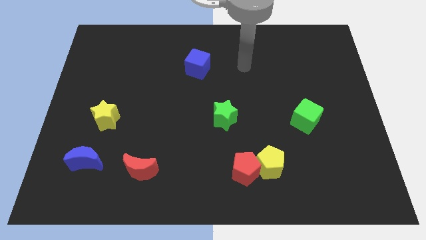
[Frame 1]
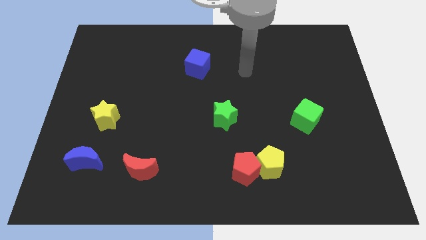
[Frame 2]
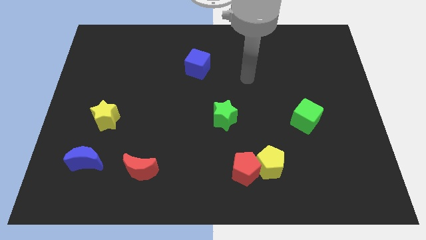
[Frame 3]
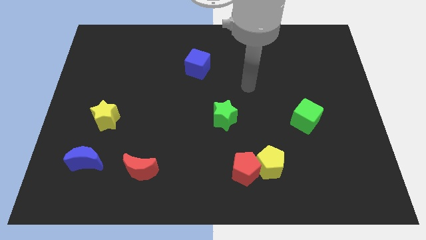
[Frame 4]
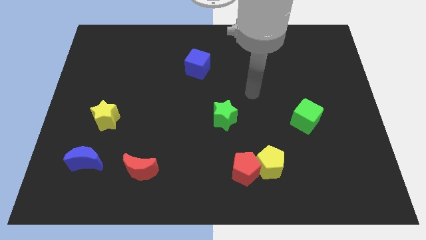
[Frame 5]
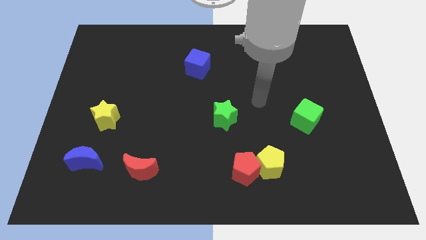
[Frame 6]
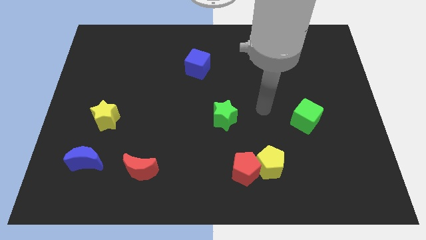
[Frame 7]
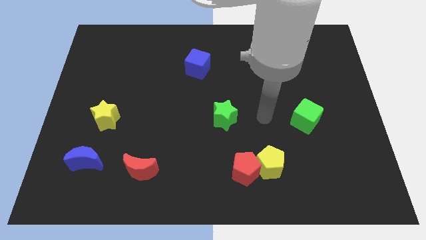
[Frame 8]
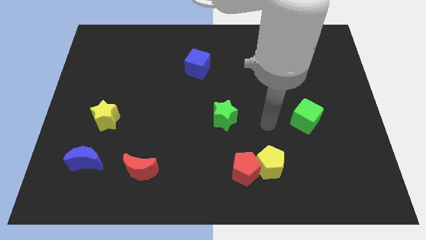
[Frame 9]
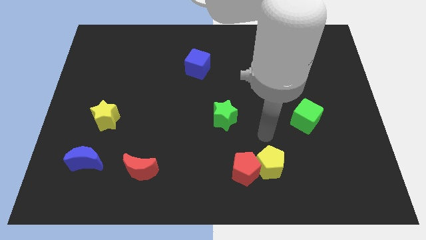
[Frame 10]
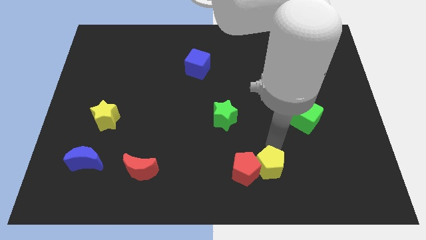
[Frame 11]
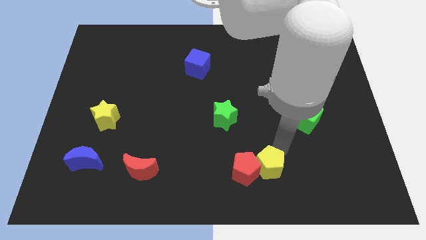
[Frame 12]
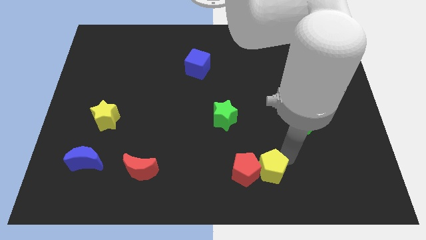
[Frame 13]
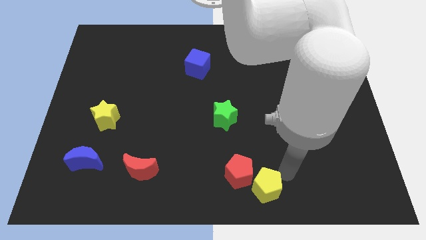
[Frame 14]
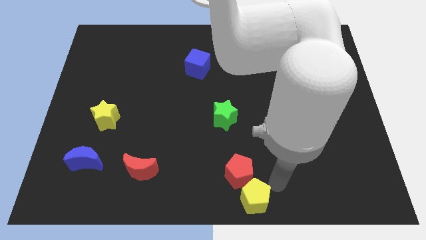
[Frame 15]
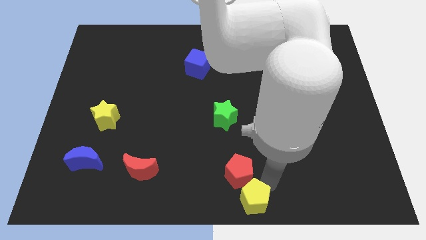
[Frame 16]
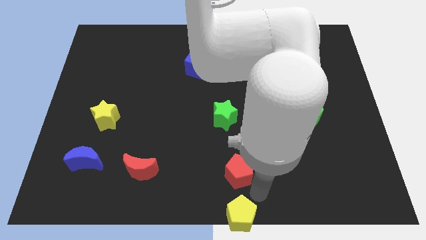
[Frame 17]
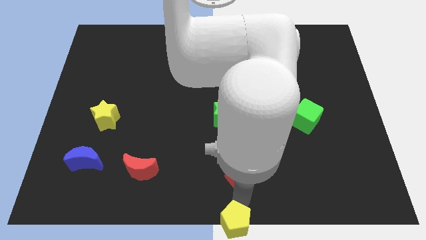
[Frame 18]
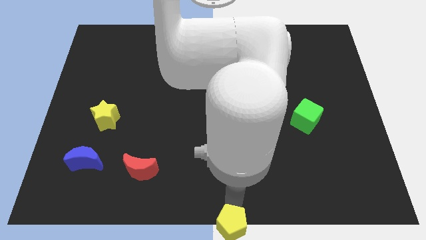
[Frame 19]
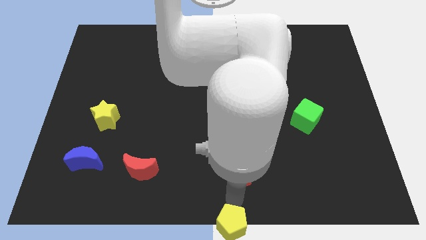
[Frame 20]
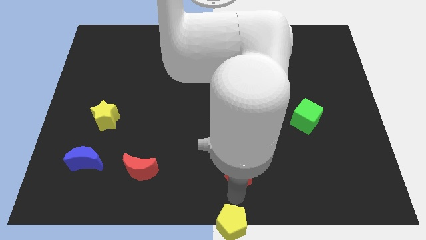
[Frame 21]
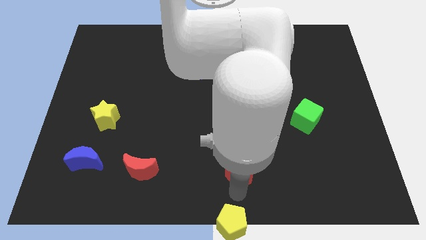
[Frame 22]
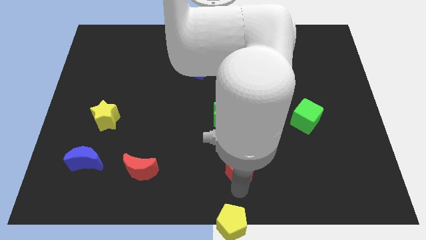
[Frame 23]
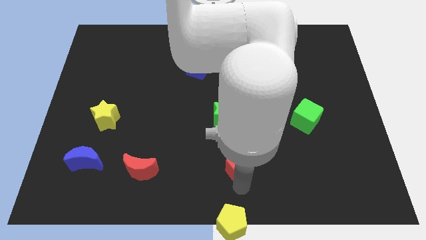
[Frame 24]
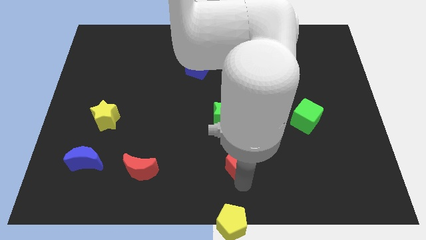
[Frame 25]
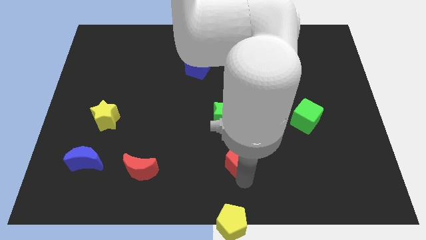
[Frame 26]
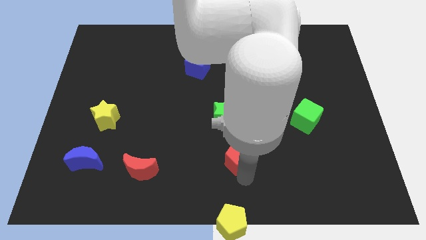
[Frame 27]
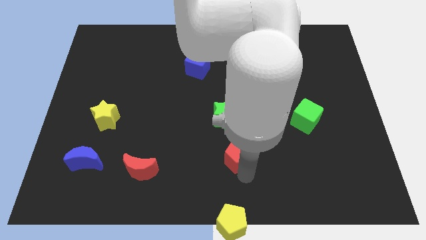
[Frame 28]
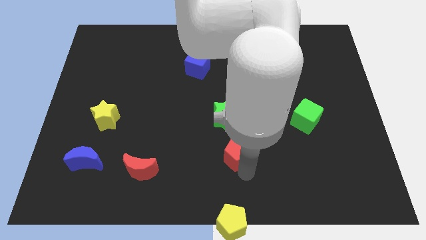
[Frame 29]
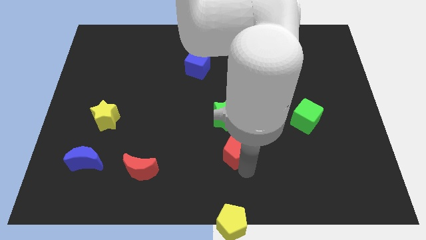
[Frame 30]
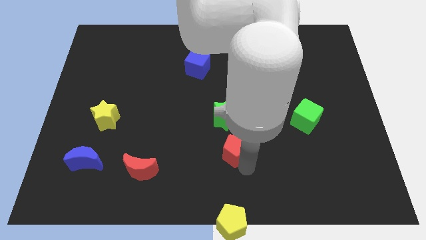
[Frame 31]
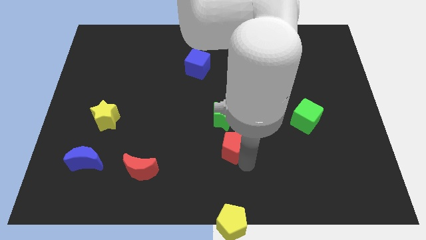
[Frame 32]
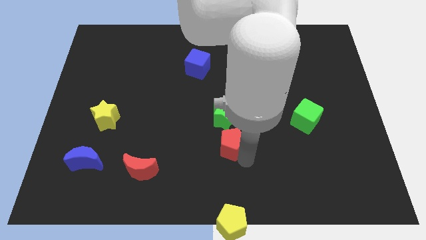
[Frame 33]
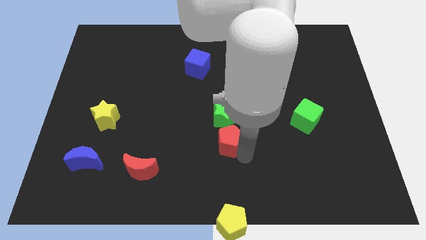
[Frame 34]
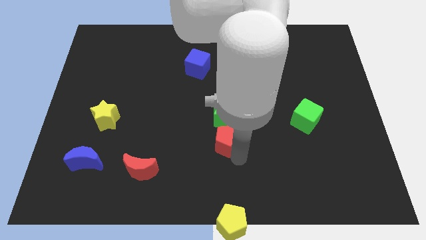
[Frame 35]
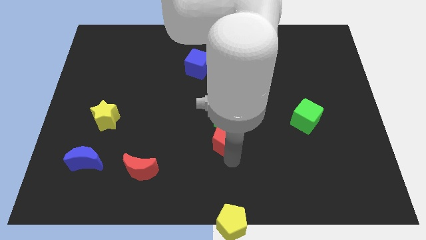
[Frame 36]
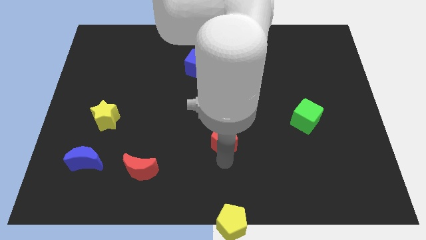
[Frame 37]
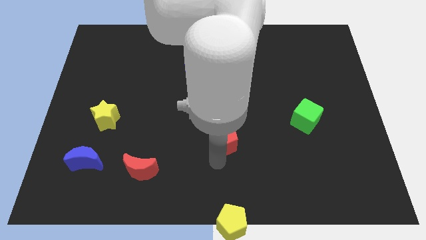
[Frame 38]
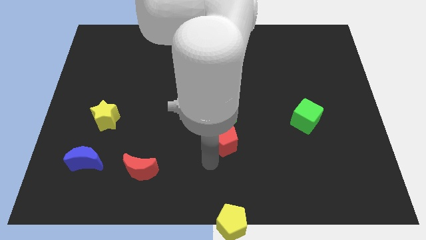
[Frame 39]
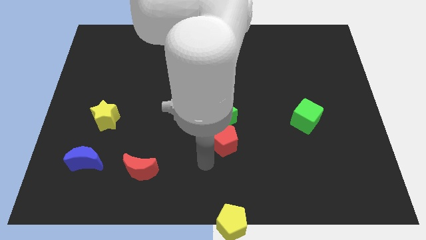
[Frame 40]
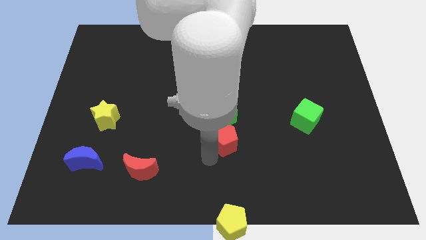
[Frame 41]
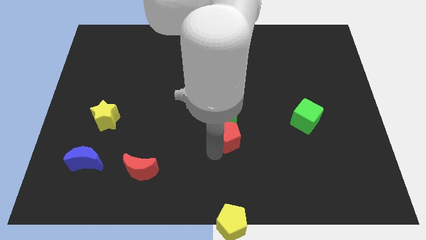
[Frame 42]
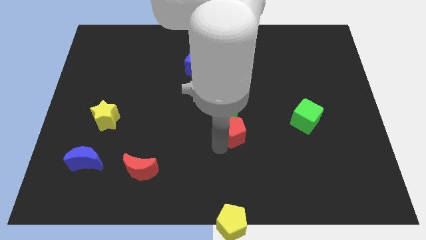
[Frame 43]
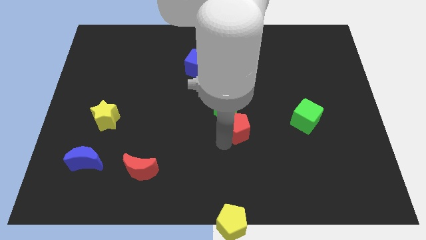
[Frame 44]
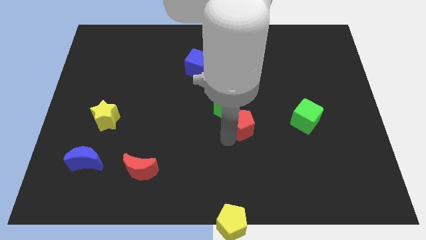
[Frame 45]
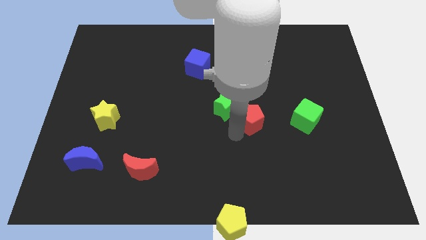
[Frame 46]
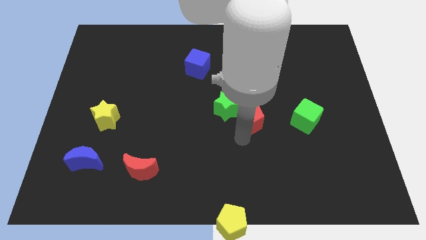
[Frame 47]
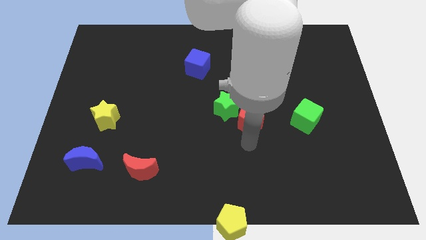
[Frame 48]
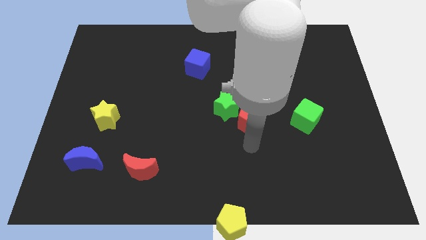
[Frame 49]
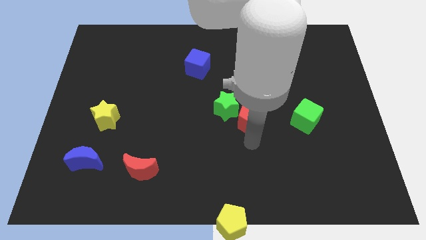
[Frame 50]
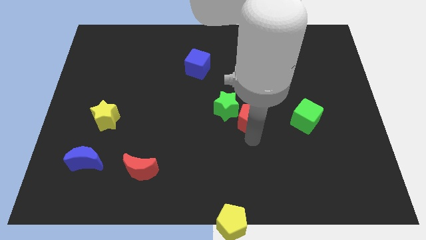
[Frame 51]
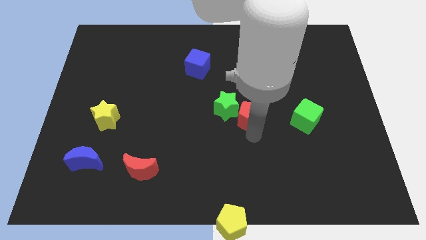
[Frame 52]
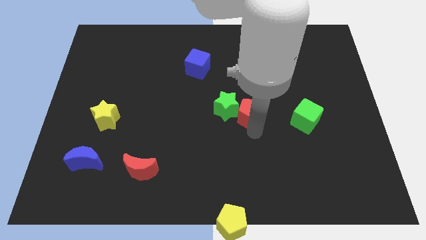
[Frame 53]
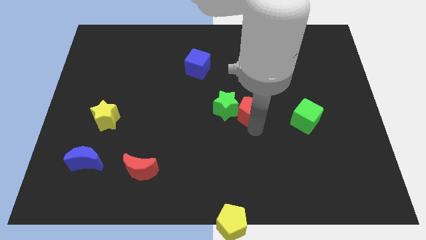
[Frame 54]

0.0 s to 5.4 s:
put the red pentagon to the top right side of the green star

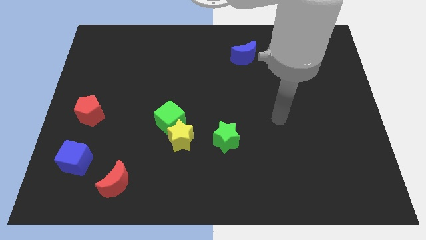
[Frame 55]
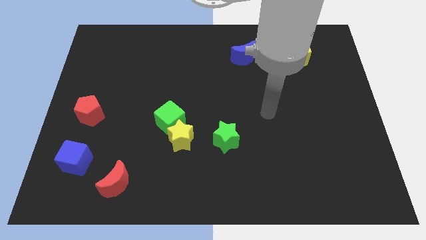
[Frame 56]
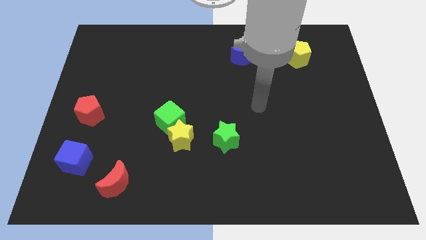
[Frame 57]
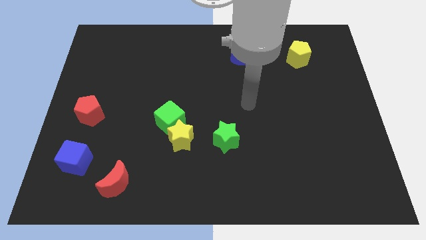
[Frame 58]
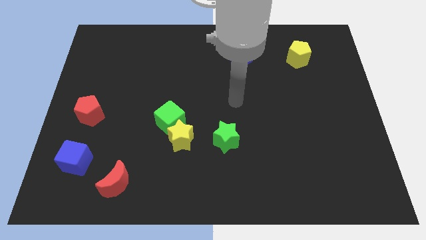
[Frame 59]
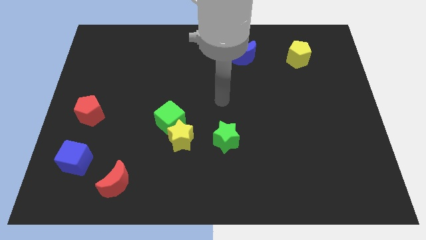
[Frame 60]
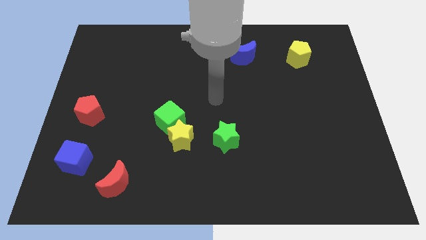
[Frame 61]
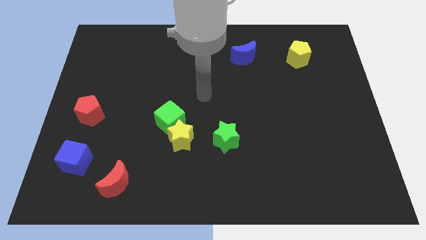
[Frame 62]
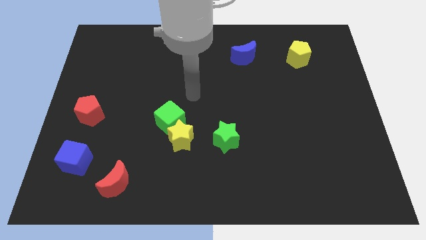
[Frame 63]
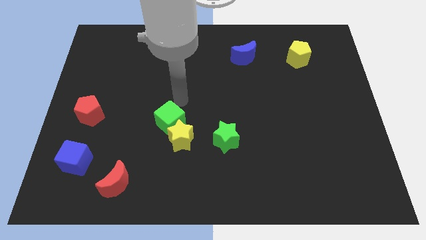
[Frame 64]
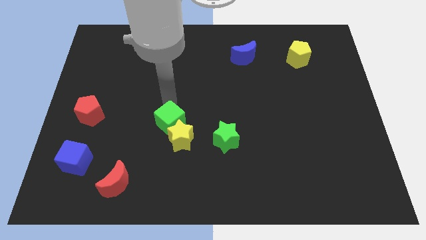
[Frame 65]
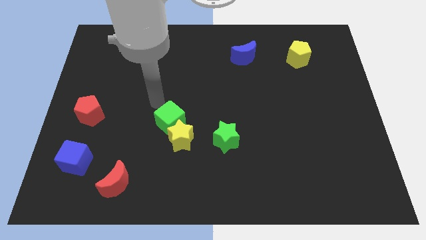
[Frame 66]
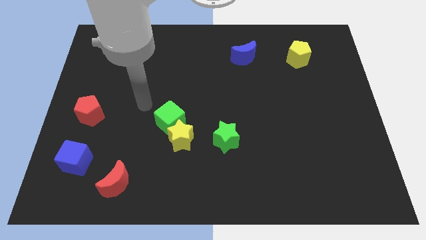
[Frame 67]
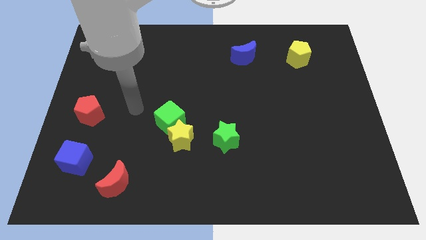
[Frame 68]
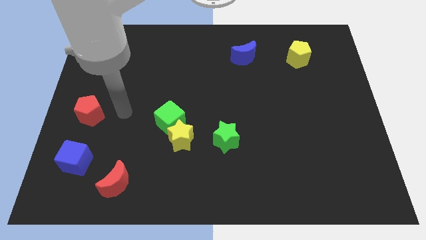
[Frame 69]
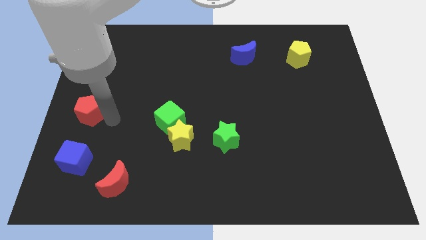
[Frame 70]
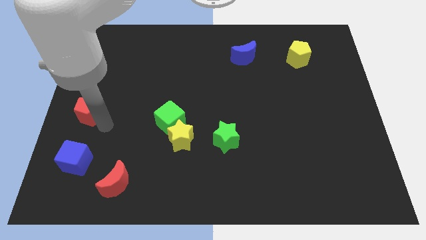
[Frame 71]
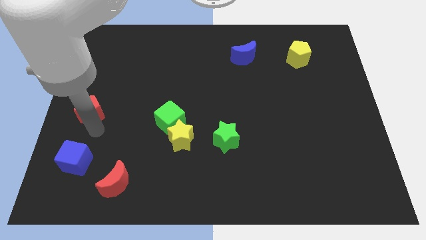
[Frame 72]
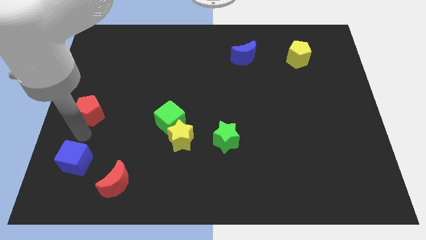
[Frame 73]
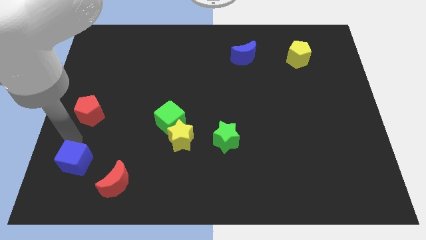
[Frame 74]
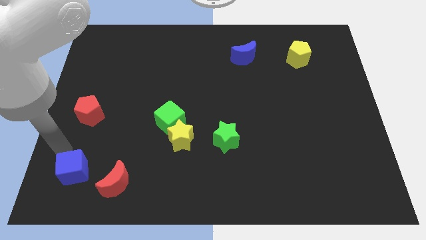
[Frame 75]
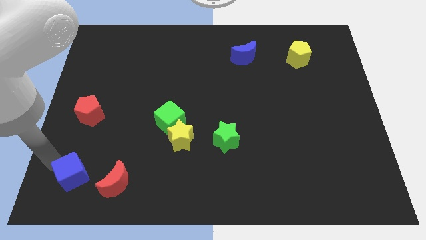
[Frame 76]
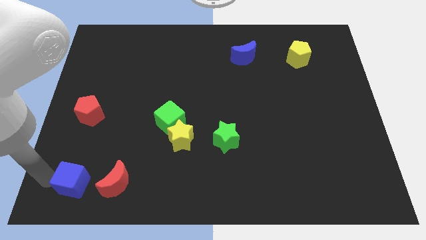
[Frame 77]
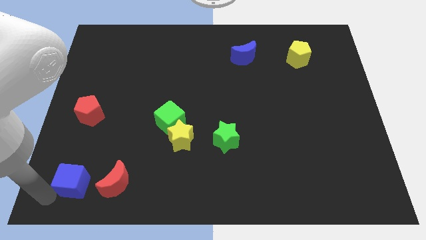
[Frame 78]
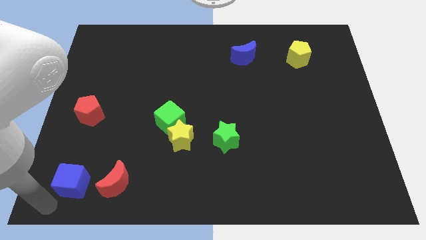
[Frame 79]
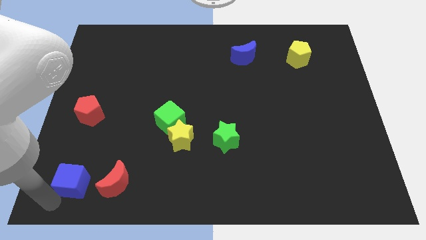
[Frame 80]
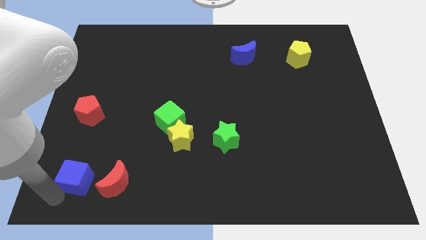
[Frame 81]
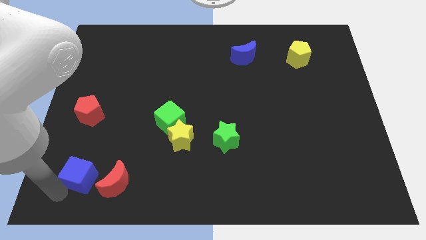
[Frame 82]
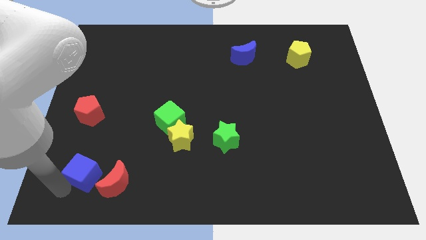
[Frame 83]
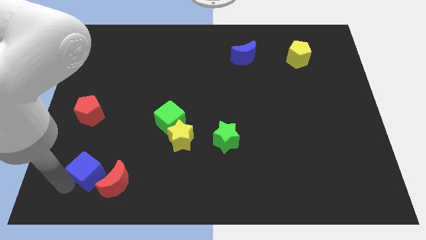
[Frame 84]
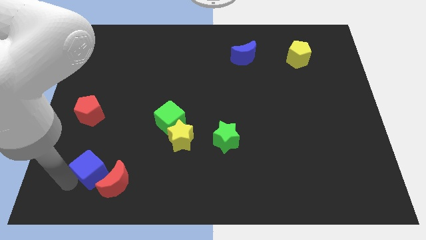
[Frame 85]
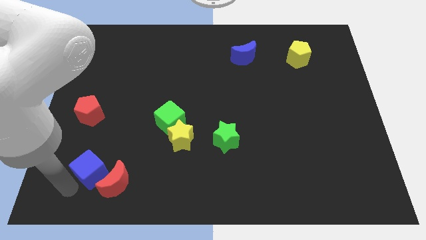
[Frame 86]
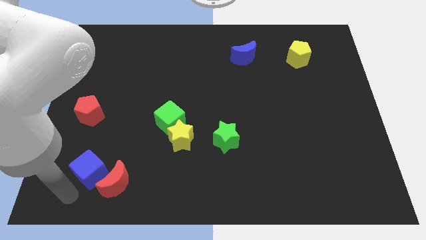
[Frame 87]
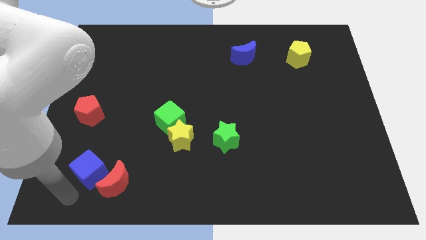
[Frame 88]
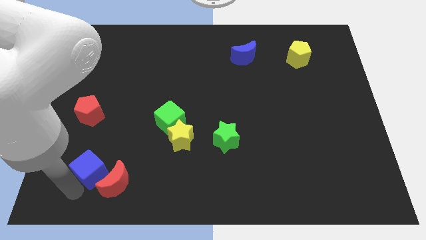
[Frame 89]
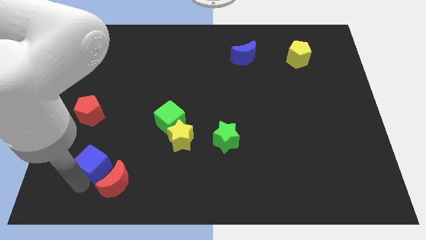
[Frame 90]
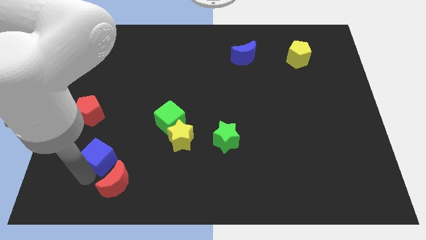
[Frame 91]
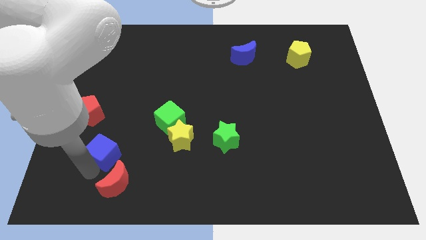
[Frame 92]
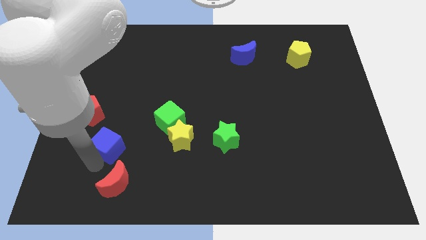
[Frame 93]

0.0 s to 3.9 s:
put the blue cube just left of the yellow star
